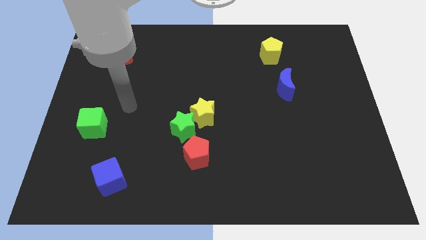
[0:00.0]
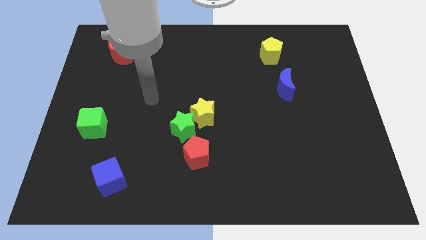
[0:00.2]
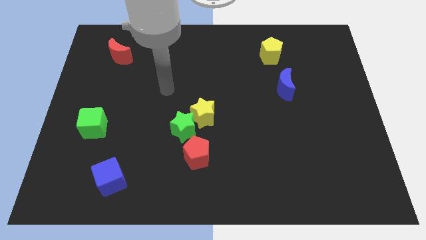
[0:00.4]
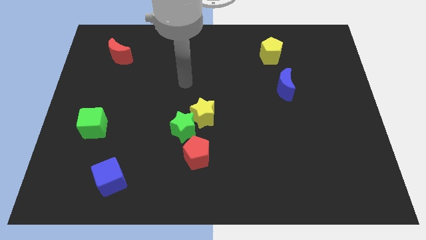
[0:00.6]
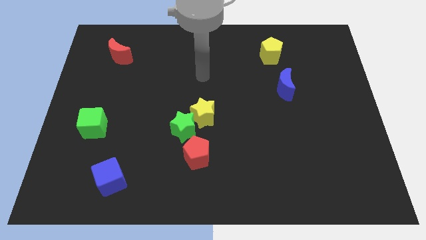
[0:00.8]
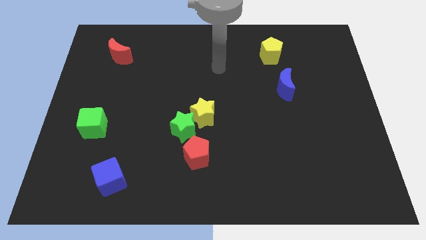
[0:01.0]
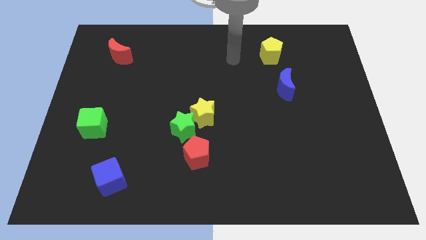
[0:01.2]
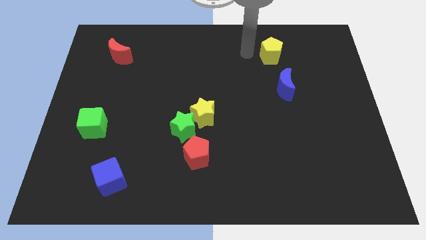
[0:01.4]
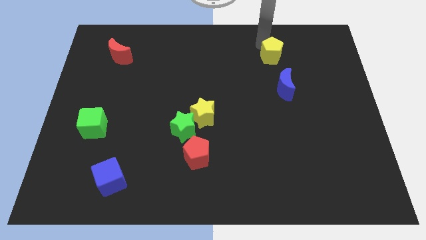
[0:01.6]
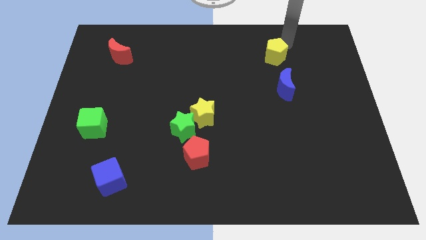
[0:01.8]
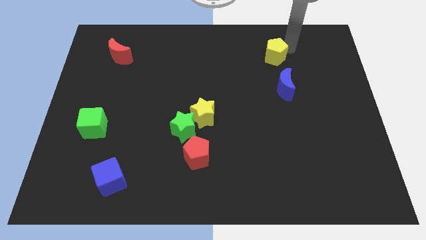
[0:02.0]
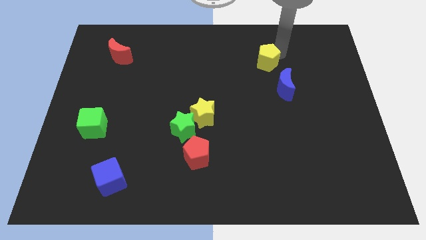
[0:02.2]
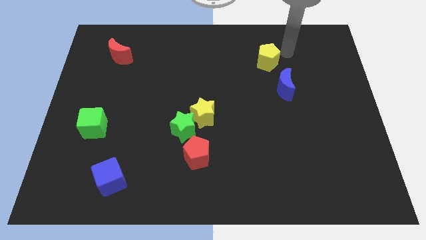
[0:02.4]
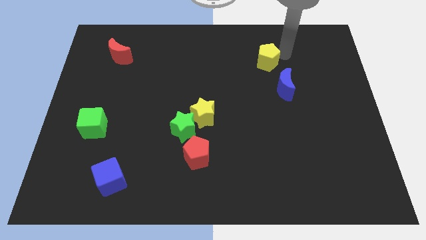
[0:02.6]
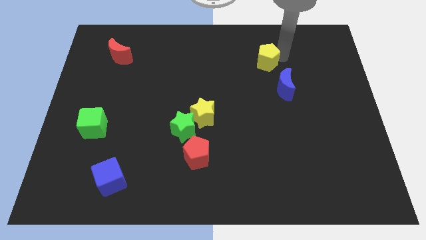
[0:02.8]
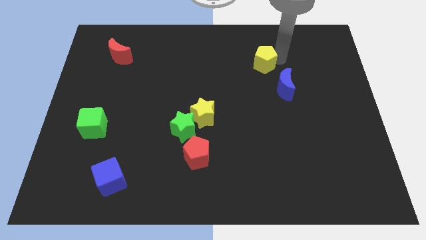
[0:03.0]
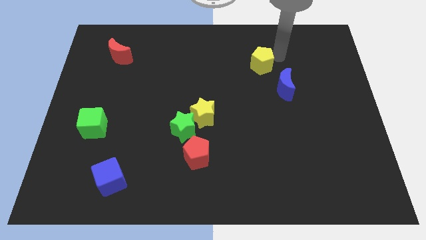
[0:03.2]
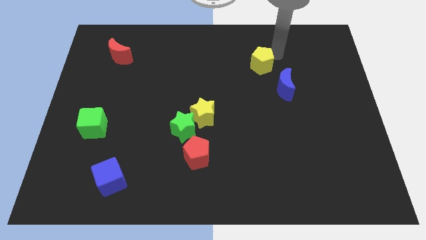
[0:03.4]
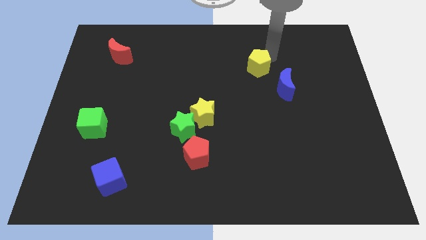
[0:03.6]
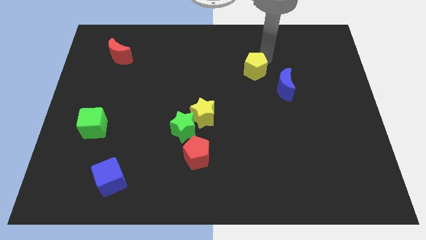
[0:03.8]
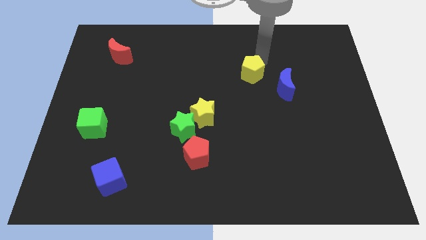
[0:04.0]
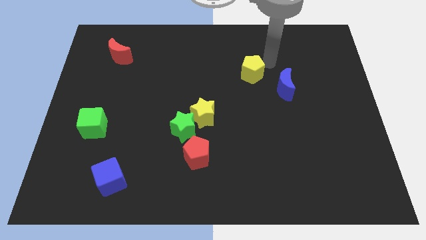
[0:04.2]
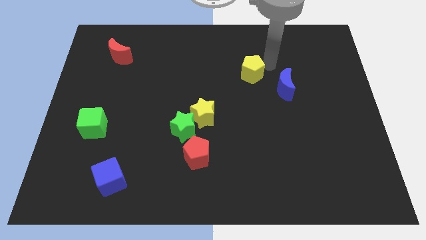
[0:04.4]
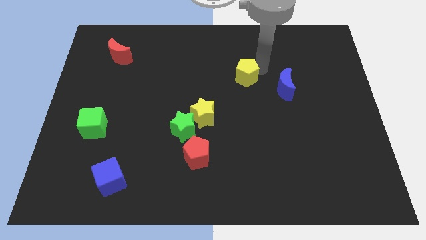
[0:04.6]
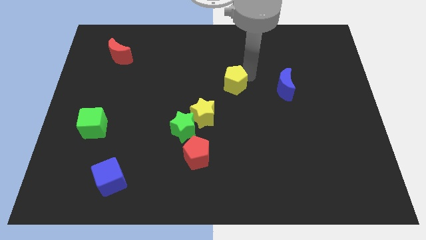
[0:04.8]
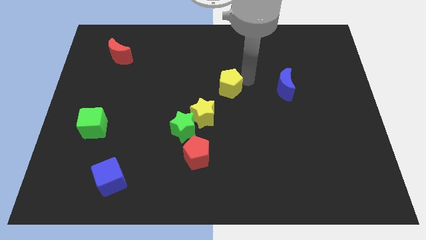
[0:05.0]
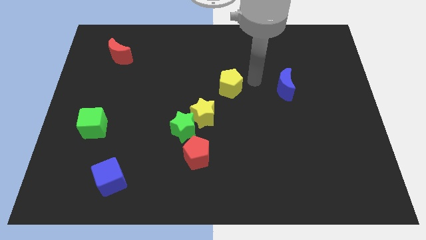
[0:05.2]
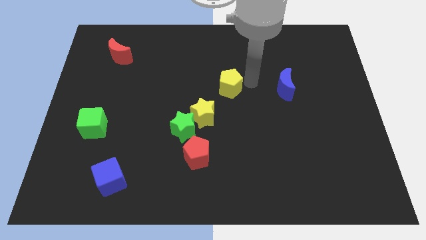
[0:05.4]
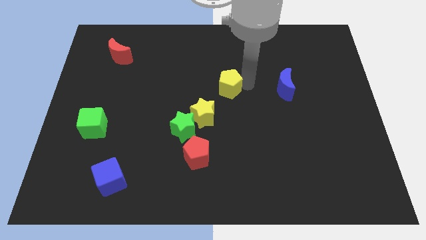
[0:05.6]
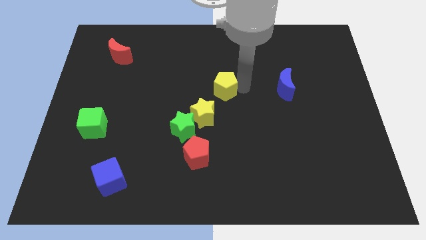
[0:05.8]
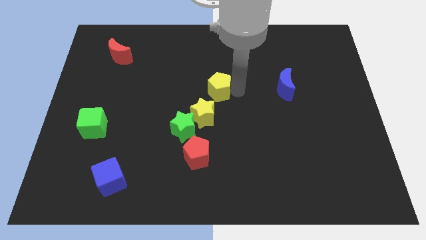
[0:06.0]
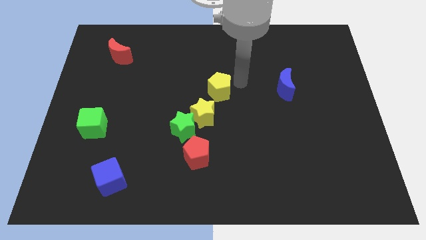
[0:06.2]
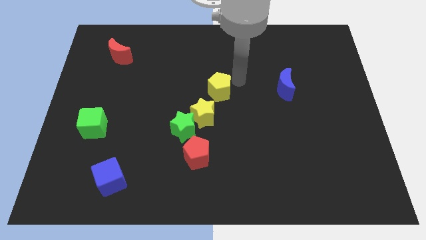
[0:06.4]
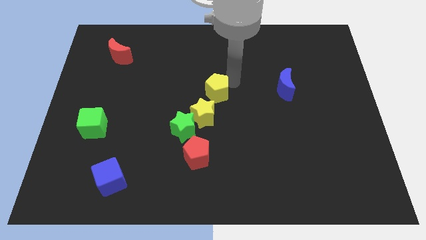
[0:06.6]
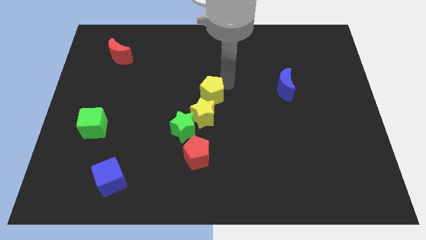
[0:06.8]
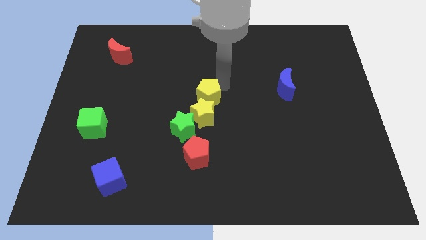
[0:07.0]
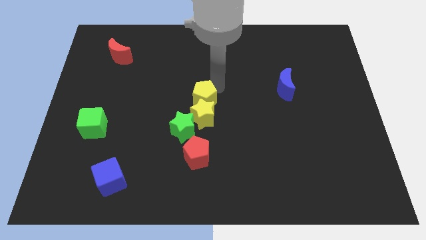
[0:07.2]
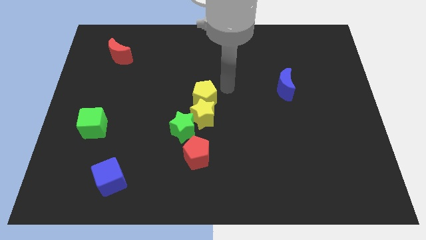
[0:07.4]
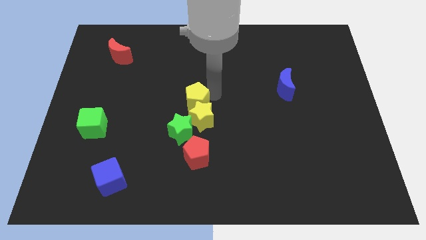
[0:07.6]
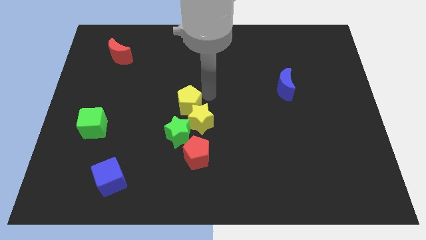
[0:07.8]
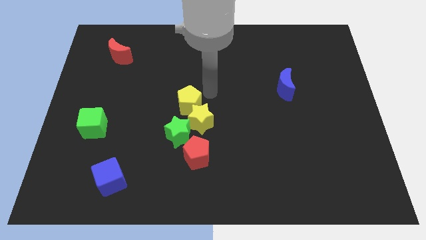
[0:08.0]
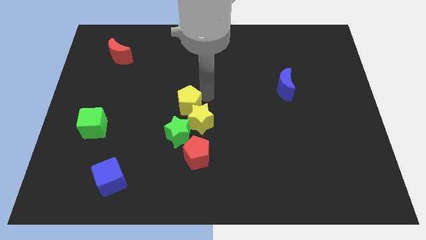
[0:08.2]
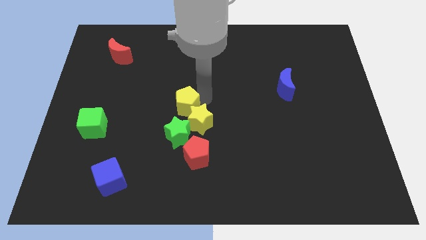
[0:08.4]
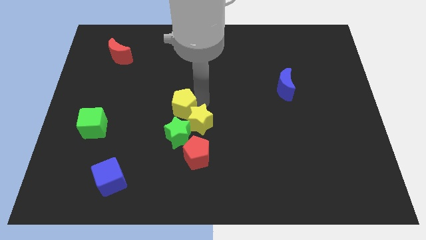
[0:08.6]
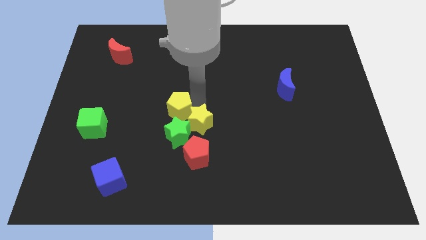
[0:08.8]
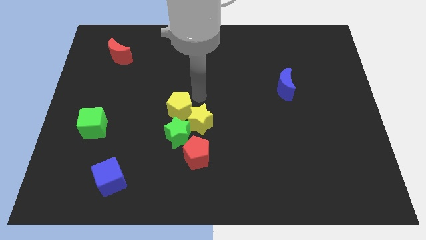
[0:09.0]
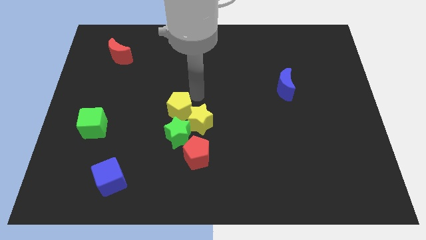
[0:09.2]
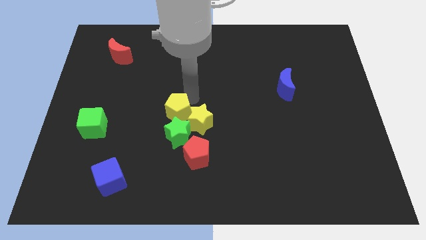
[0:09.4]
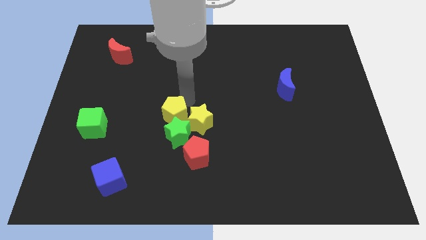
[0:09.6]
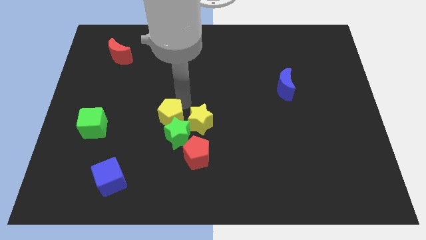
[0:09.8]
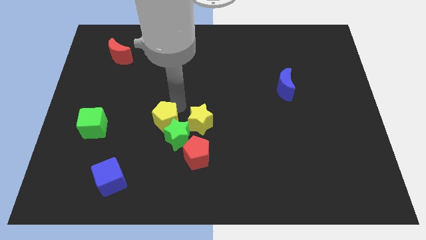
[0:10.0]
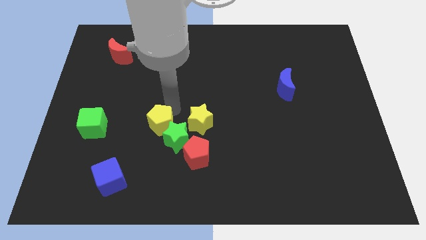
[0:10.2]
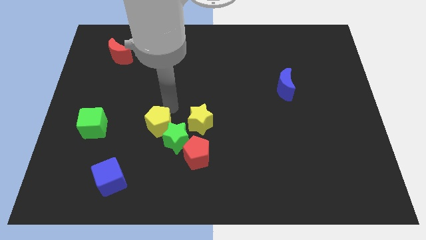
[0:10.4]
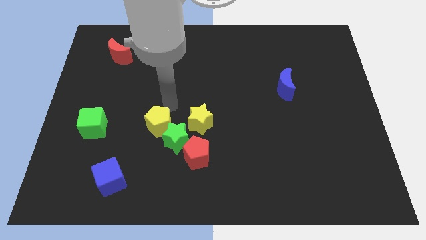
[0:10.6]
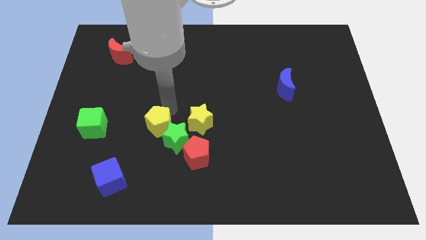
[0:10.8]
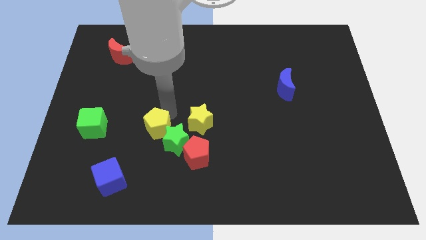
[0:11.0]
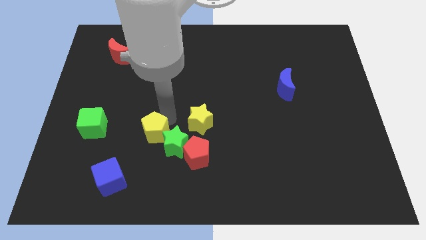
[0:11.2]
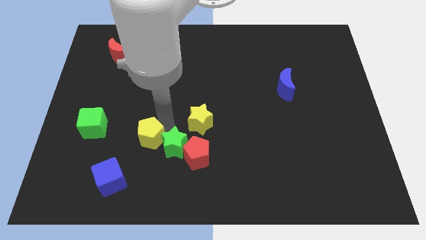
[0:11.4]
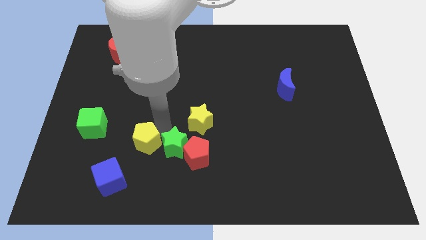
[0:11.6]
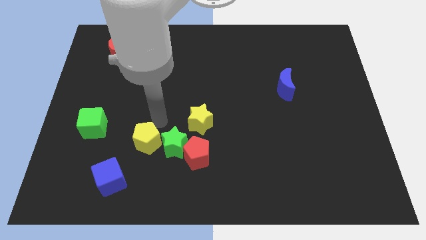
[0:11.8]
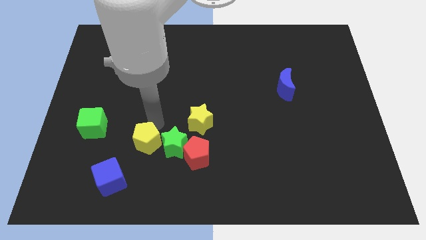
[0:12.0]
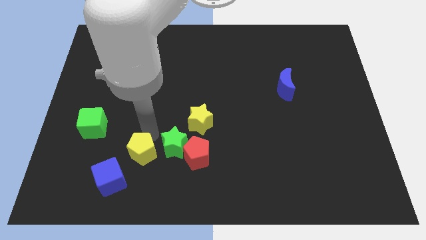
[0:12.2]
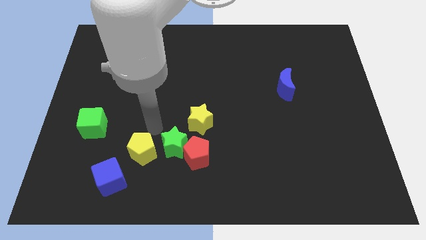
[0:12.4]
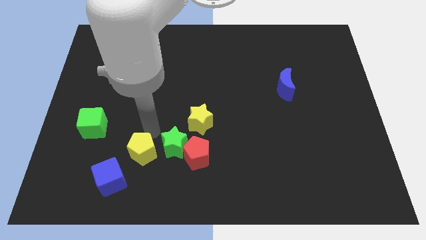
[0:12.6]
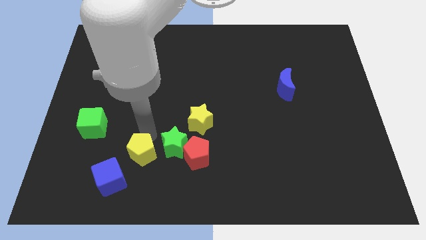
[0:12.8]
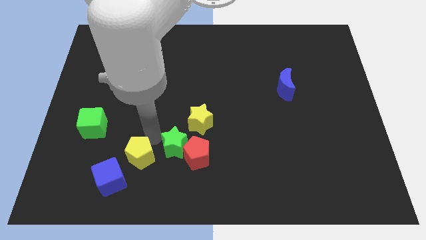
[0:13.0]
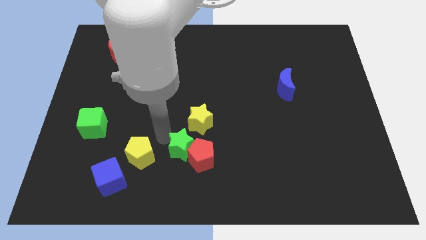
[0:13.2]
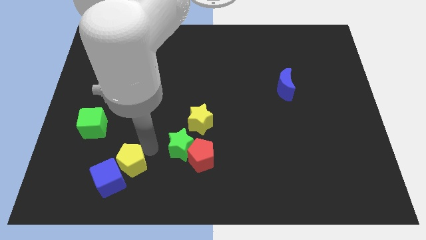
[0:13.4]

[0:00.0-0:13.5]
push the yellow pentagon next to the blue cube

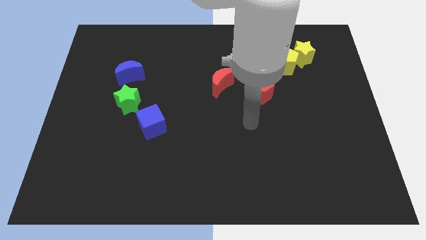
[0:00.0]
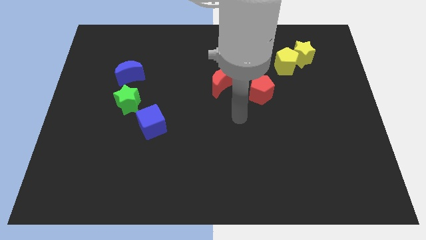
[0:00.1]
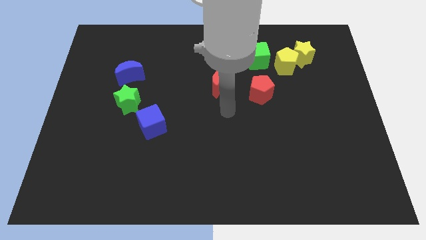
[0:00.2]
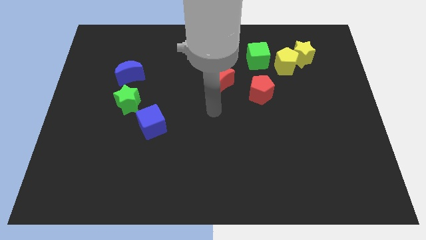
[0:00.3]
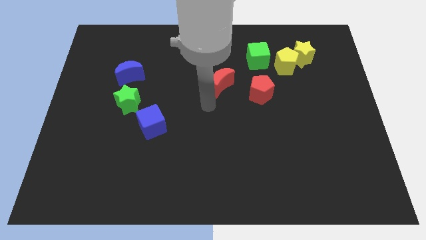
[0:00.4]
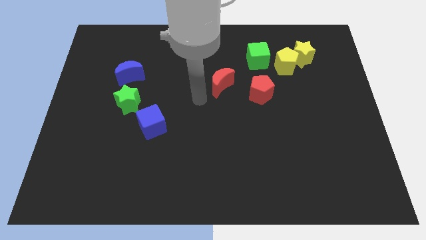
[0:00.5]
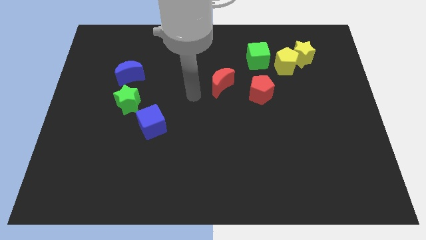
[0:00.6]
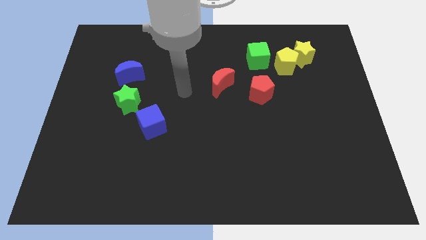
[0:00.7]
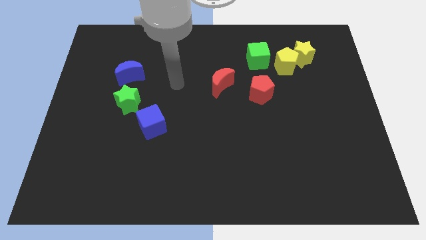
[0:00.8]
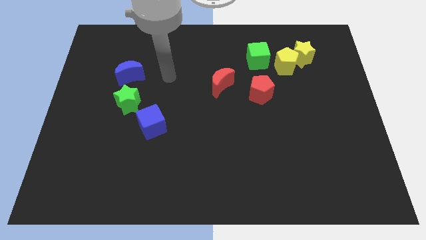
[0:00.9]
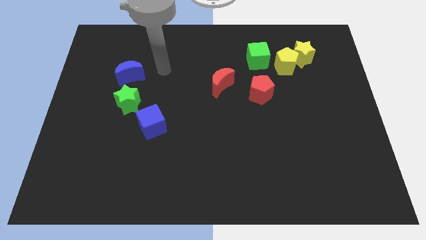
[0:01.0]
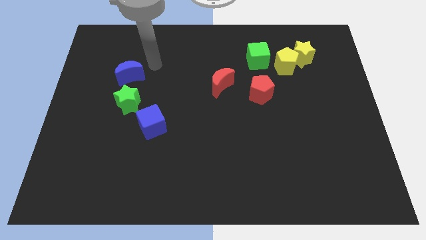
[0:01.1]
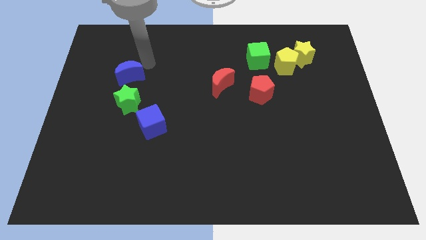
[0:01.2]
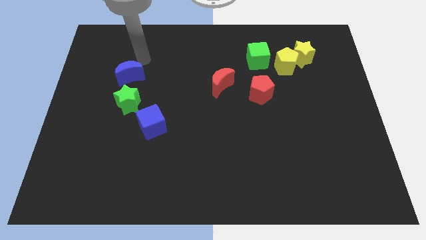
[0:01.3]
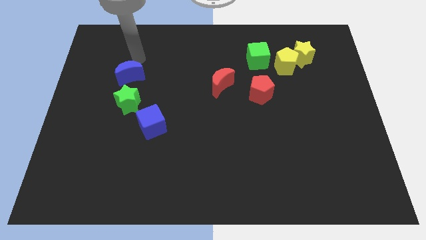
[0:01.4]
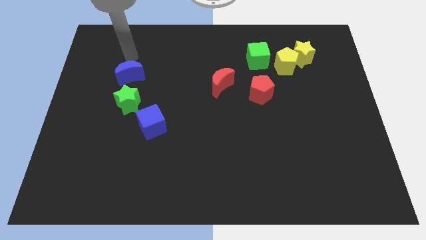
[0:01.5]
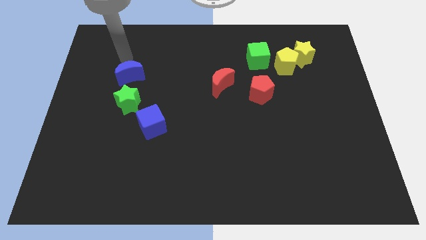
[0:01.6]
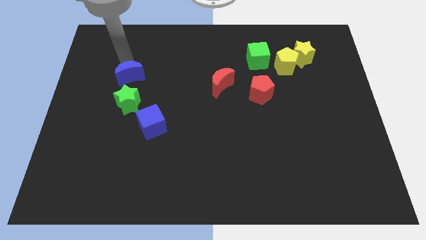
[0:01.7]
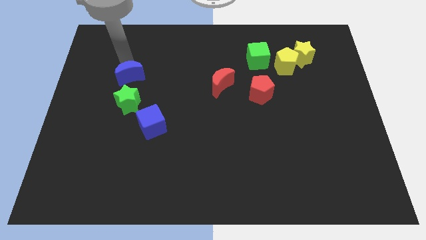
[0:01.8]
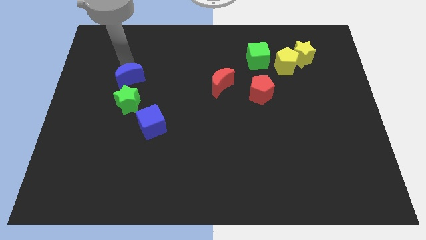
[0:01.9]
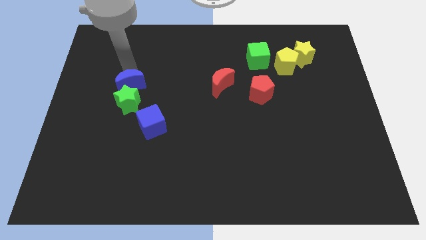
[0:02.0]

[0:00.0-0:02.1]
put the blue moon towards the green star
